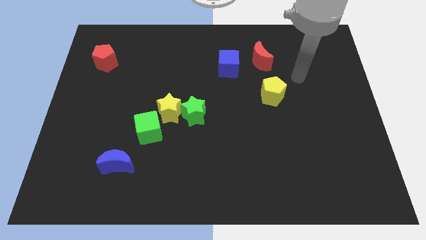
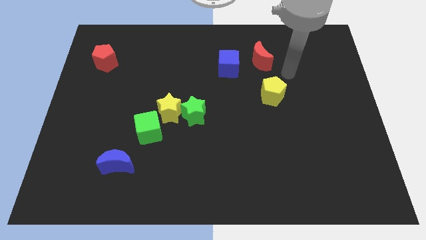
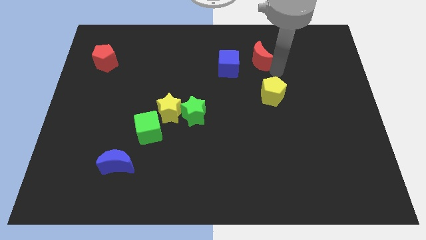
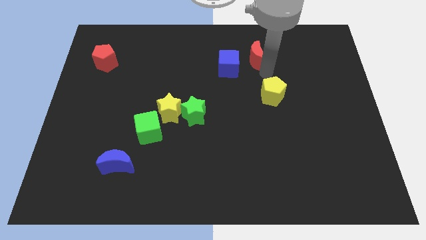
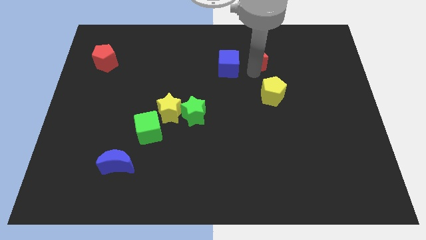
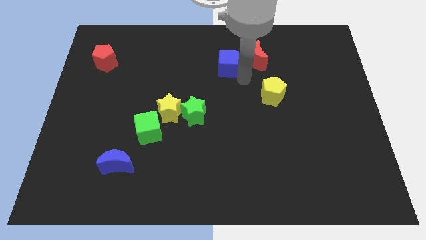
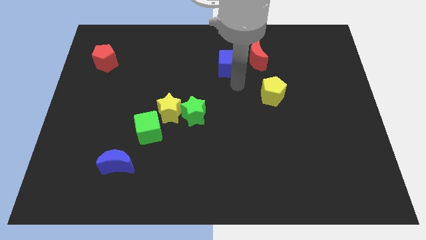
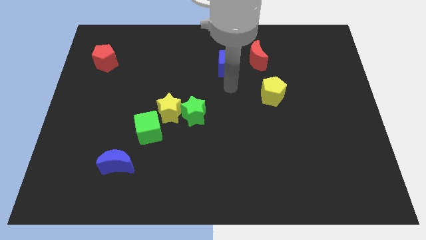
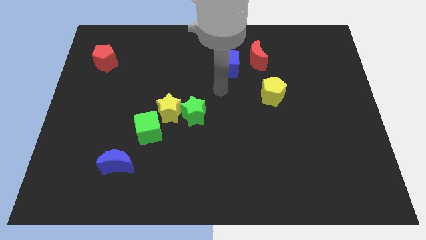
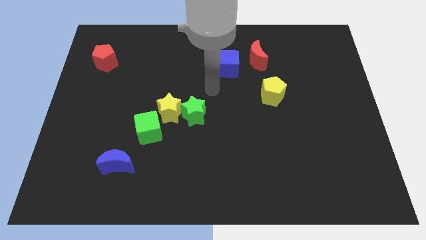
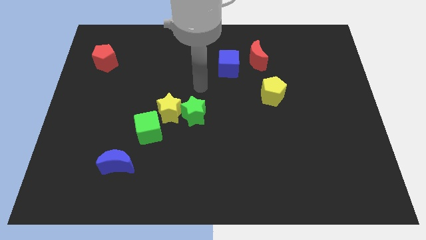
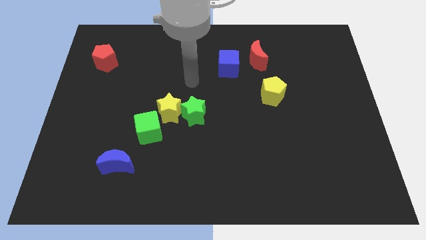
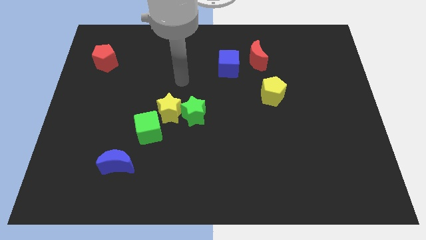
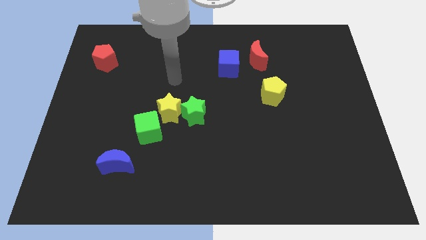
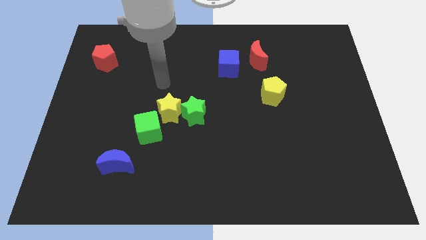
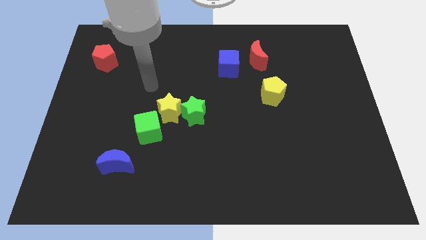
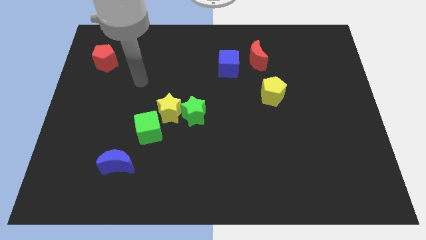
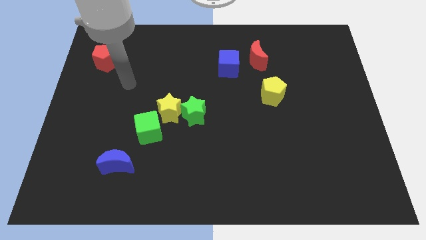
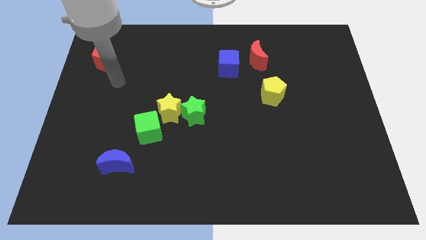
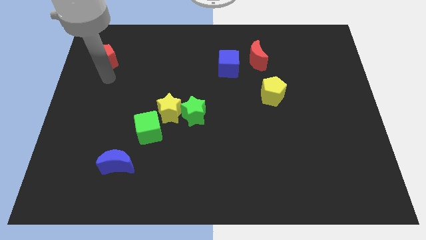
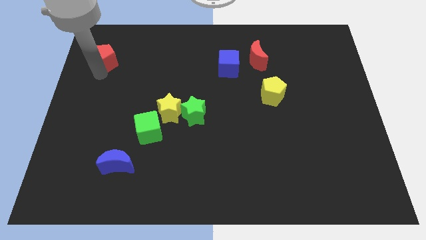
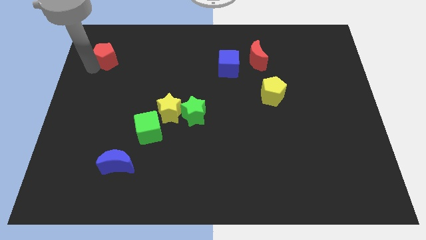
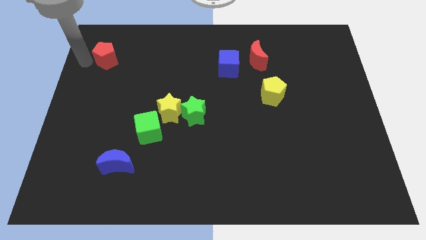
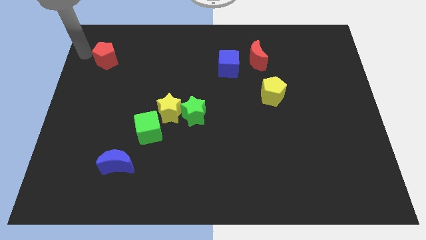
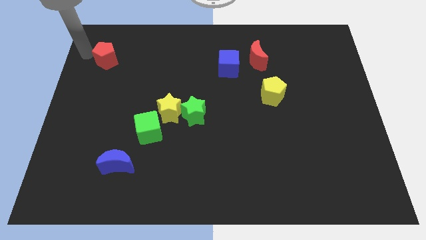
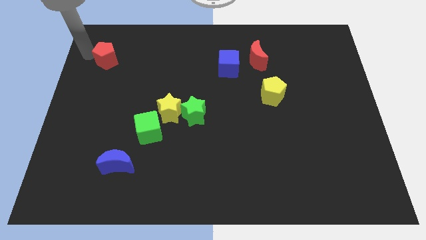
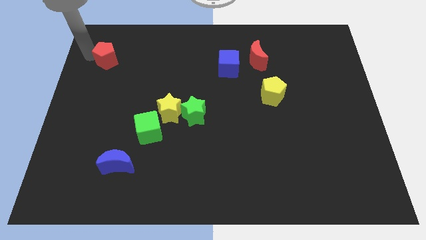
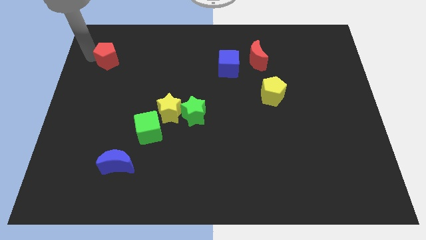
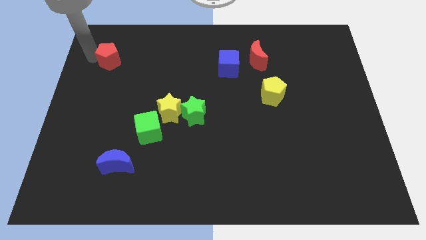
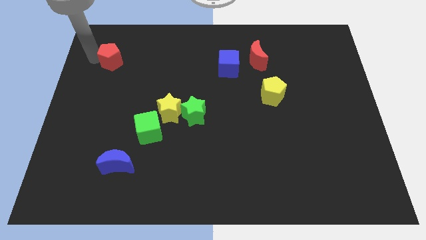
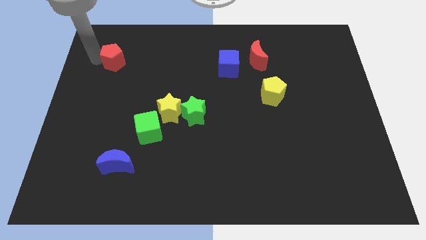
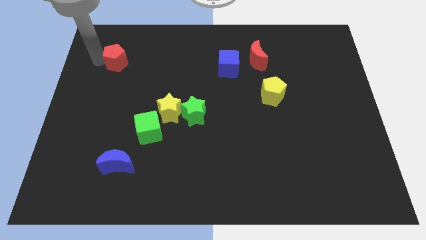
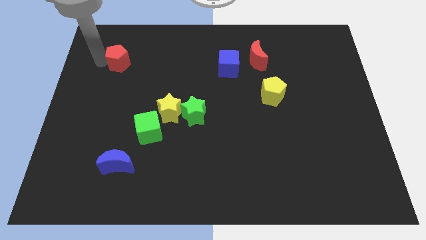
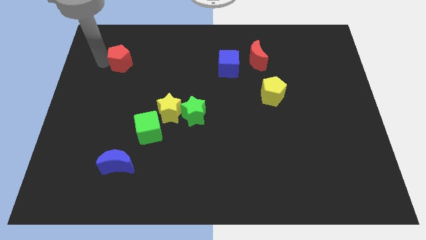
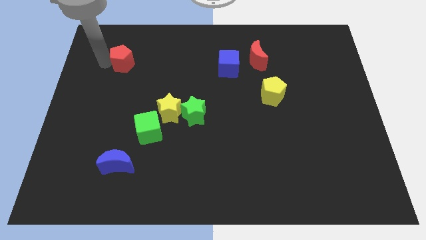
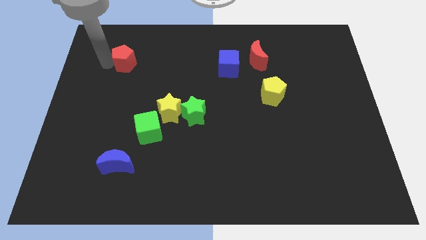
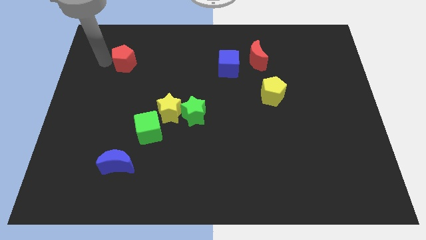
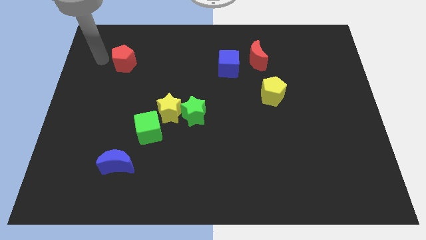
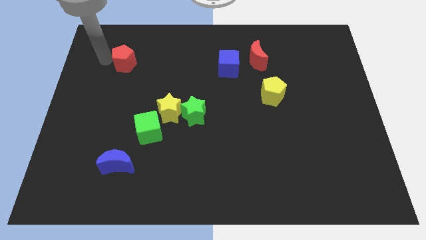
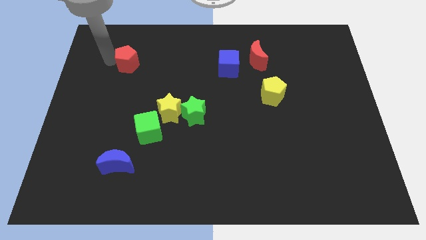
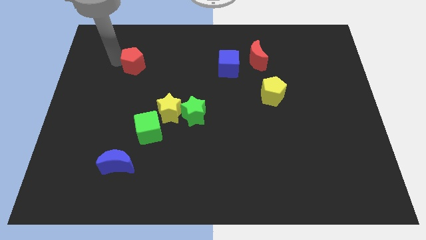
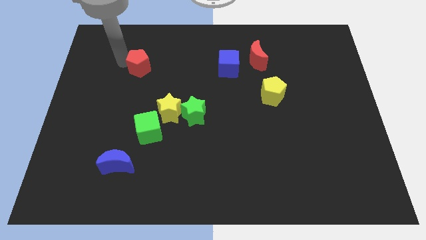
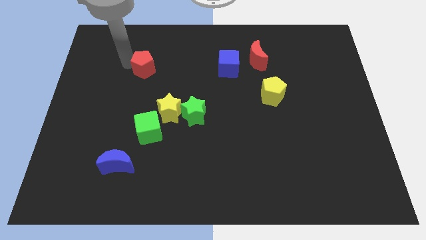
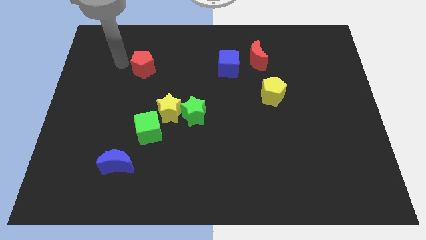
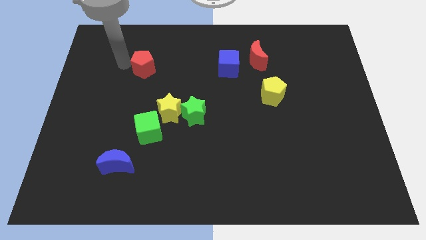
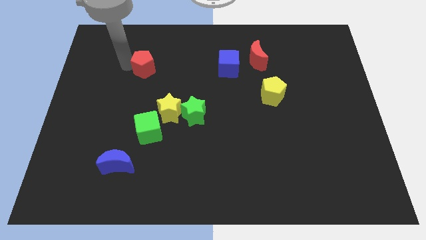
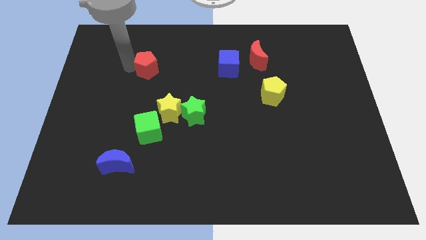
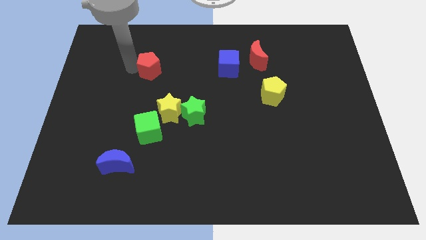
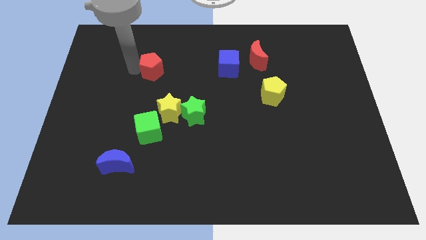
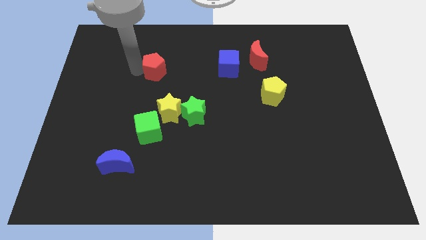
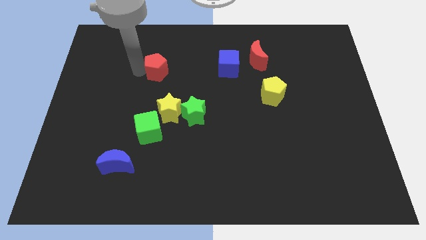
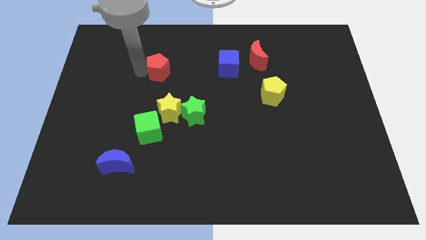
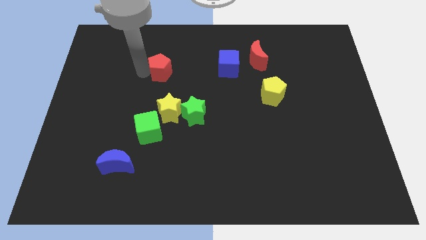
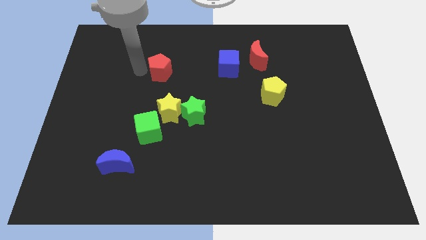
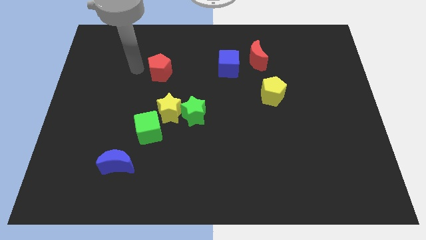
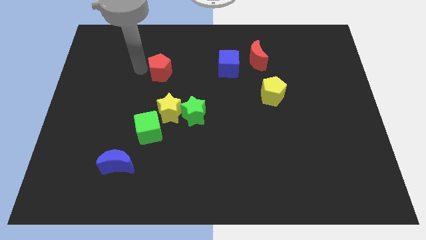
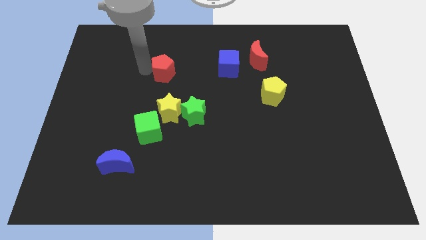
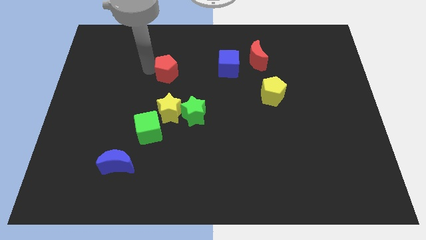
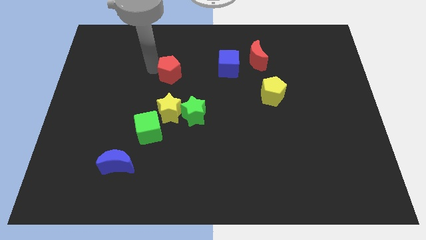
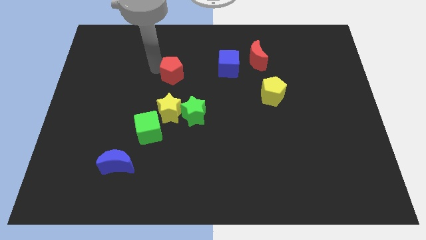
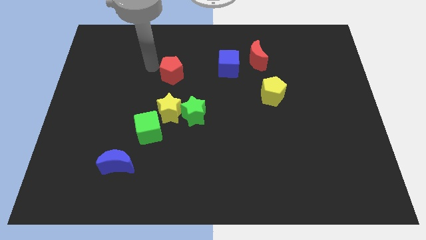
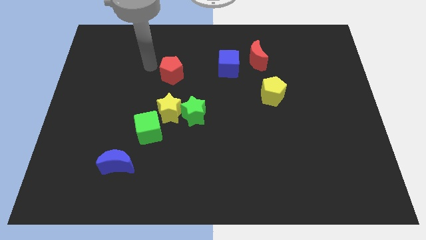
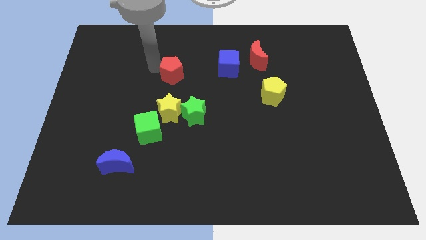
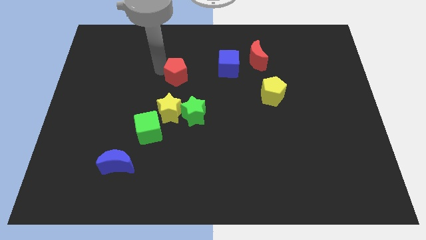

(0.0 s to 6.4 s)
put the red pentagon above the green star

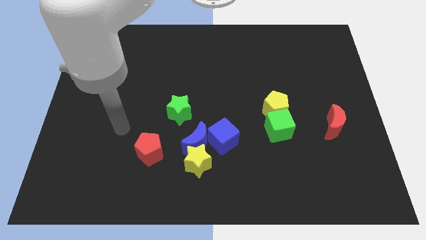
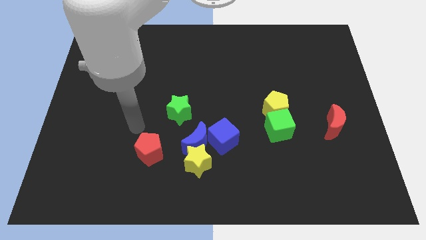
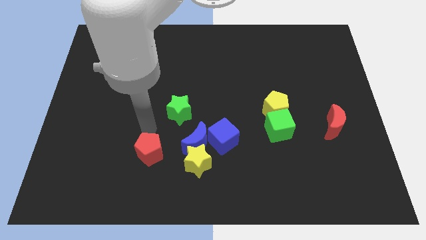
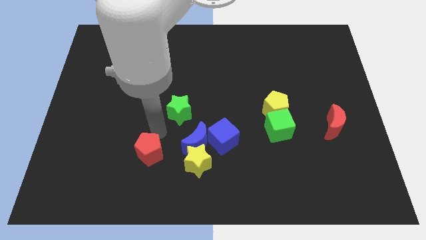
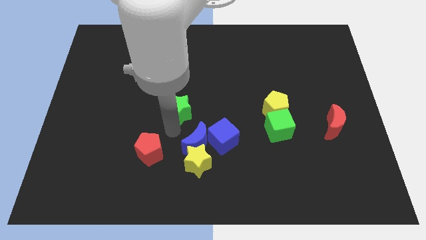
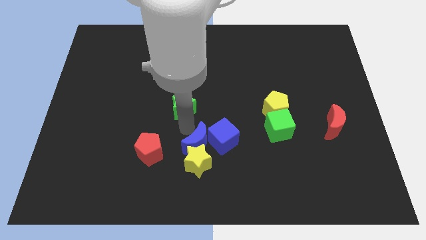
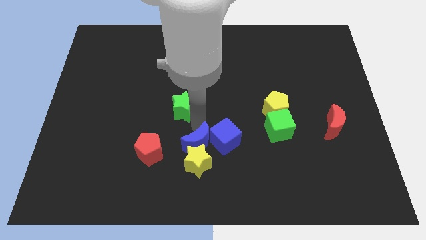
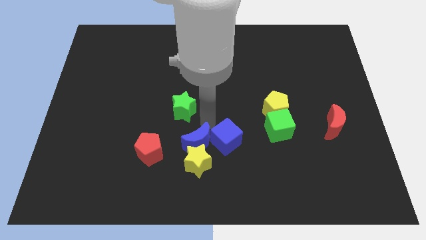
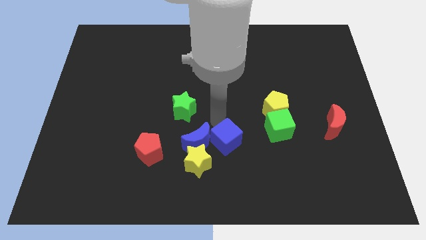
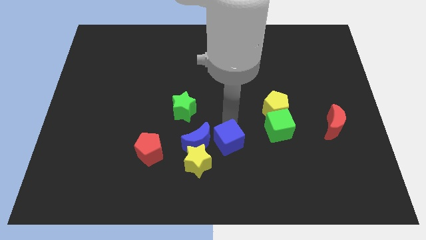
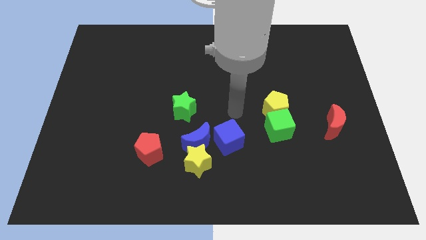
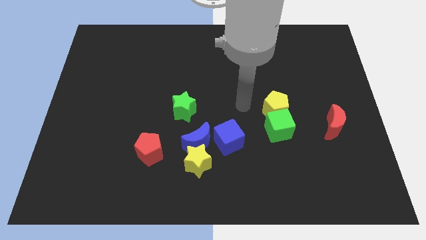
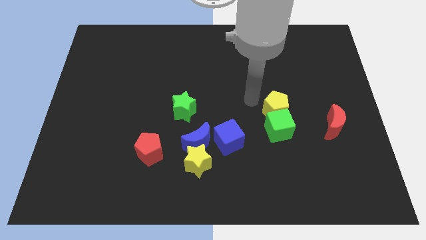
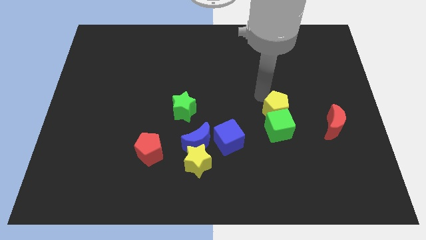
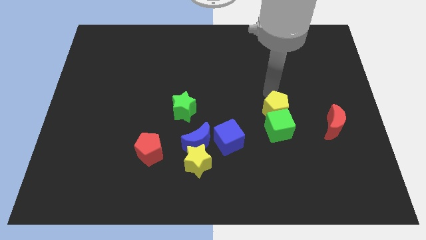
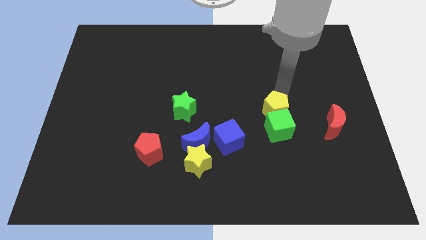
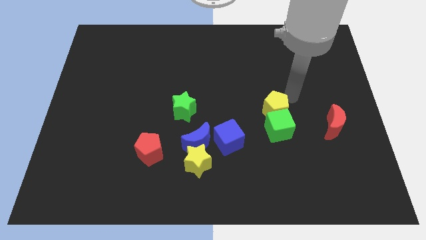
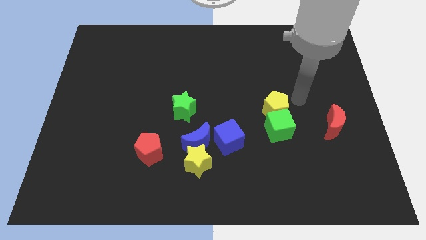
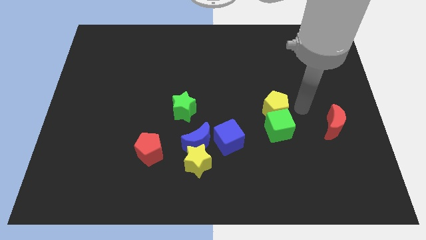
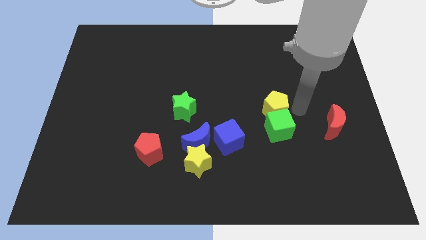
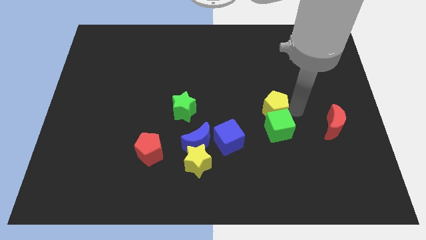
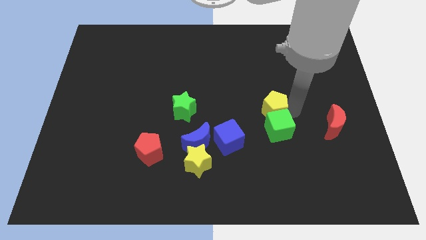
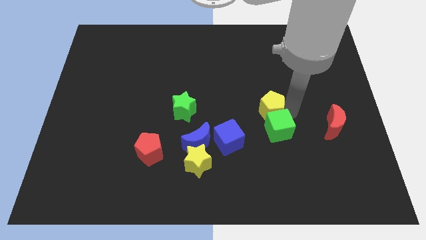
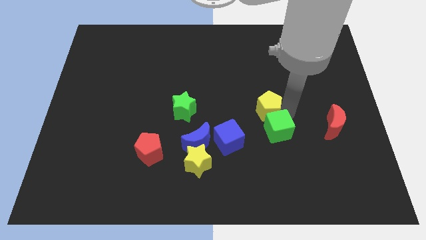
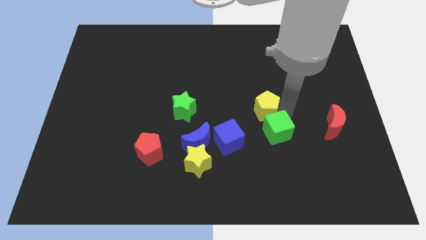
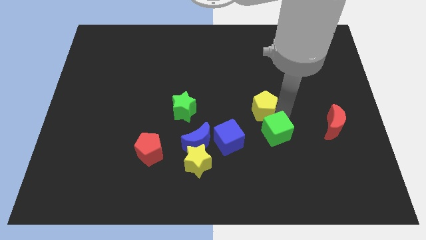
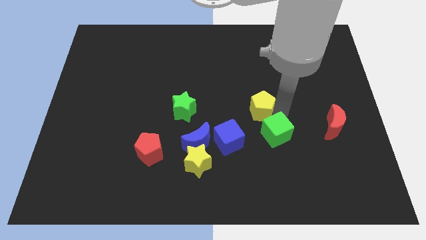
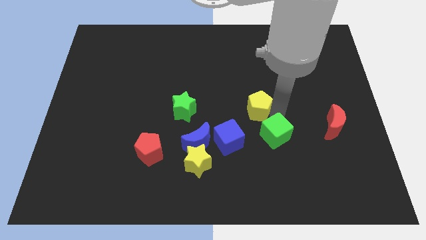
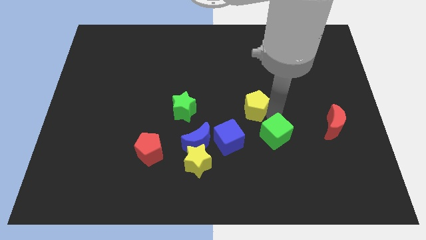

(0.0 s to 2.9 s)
slide the yellow pentagon just right of the green star
